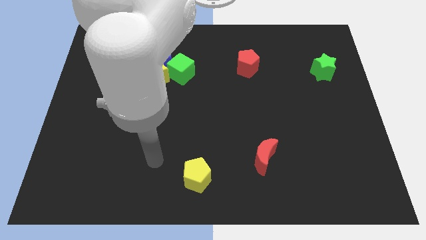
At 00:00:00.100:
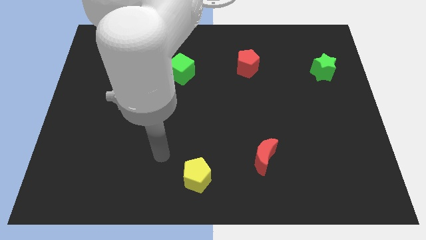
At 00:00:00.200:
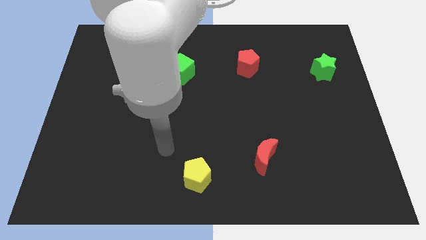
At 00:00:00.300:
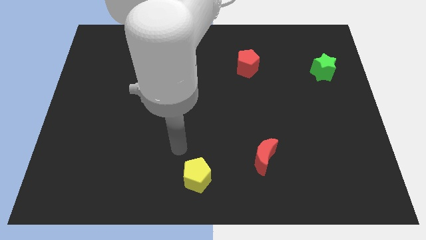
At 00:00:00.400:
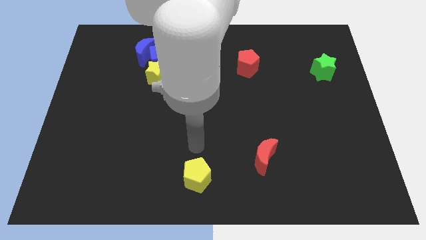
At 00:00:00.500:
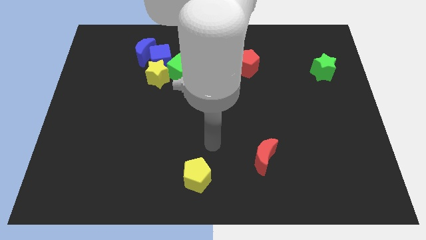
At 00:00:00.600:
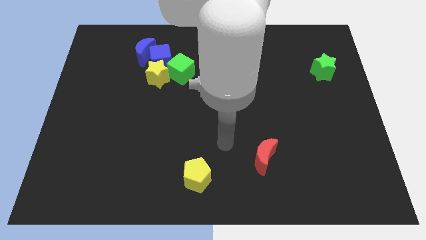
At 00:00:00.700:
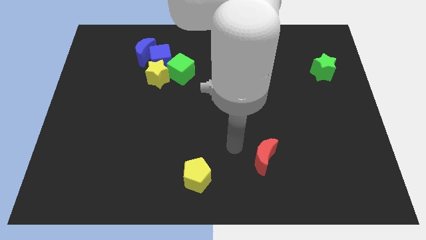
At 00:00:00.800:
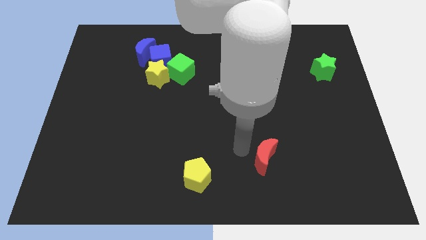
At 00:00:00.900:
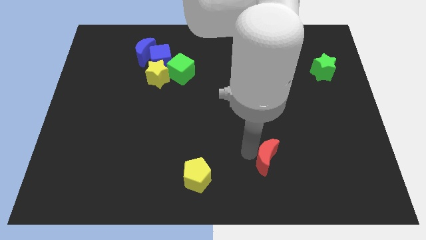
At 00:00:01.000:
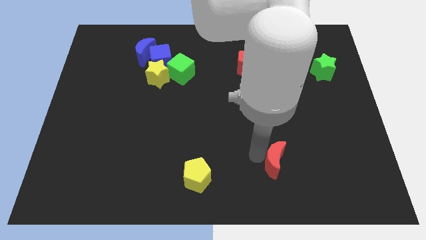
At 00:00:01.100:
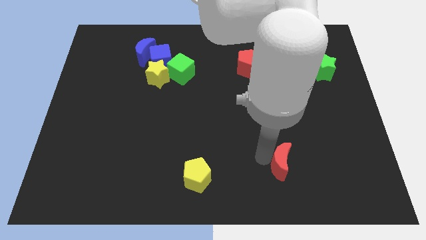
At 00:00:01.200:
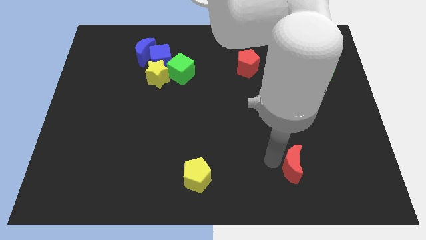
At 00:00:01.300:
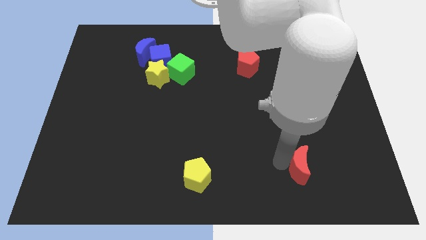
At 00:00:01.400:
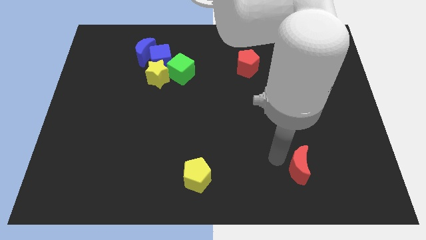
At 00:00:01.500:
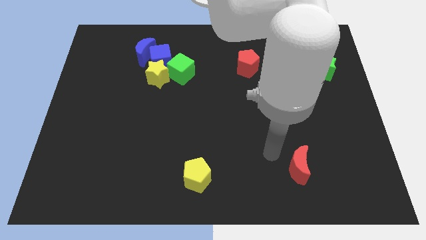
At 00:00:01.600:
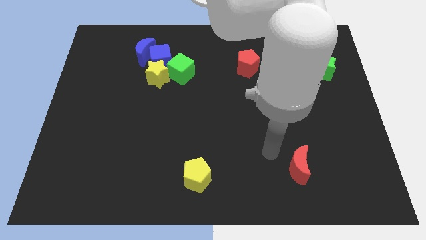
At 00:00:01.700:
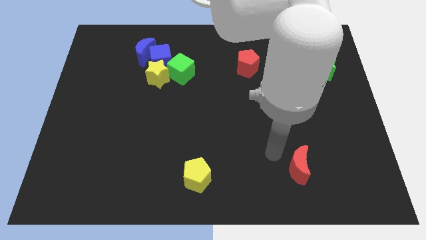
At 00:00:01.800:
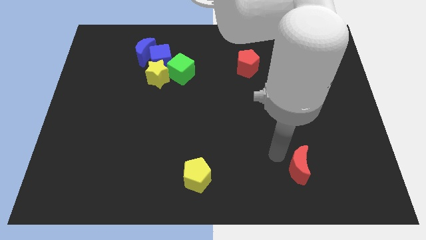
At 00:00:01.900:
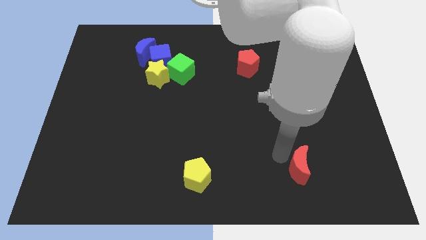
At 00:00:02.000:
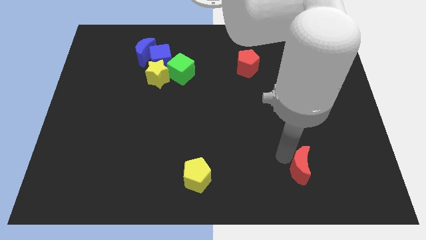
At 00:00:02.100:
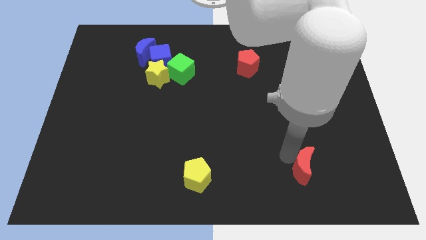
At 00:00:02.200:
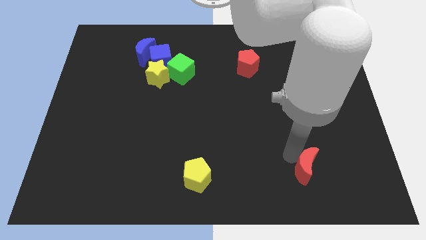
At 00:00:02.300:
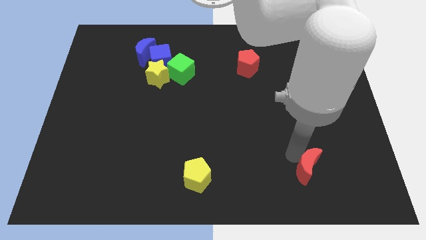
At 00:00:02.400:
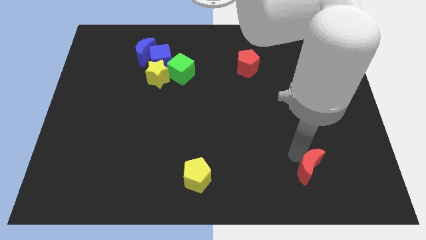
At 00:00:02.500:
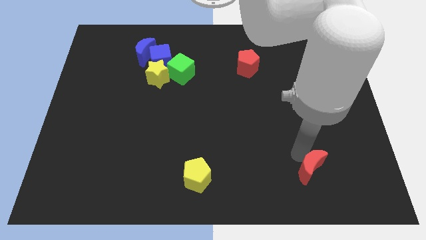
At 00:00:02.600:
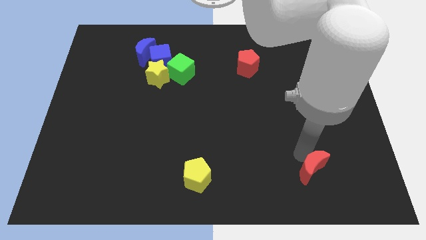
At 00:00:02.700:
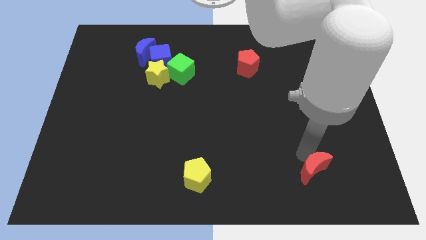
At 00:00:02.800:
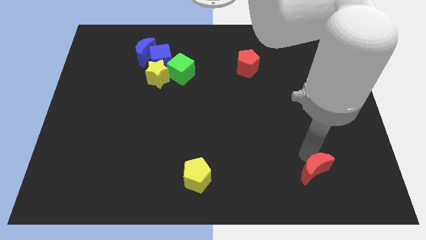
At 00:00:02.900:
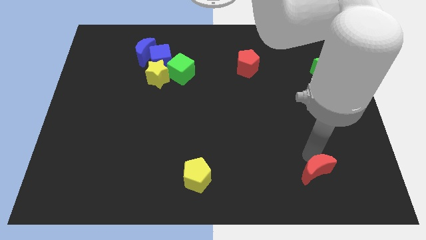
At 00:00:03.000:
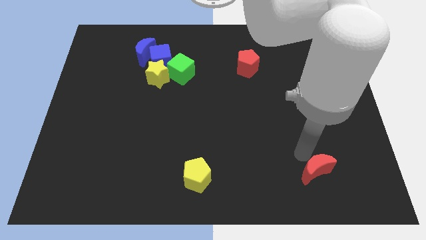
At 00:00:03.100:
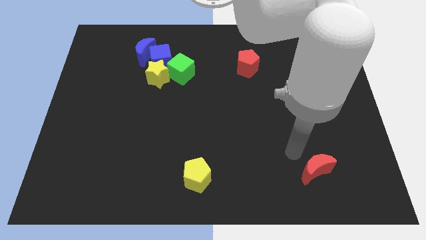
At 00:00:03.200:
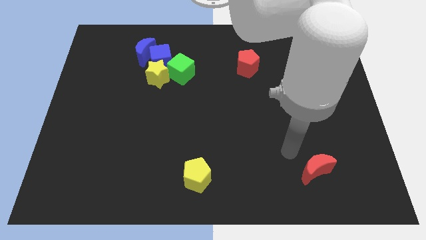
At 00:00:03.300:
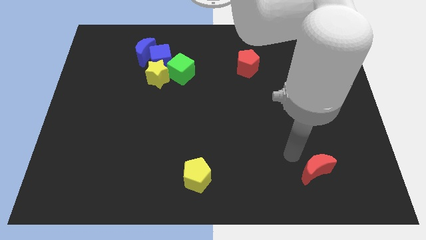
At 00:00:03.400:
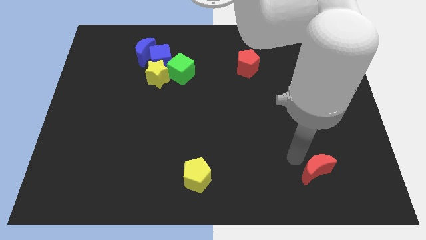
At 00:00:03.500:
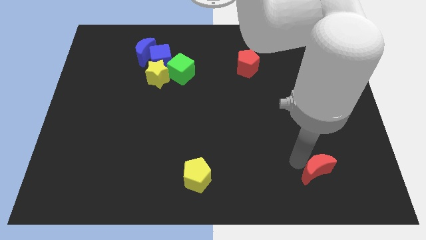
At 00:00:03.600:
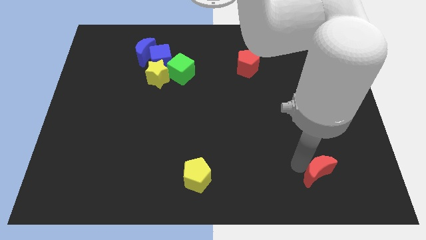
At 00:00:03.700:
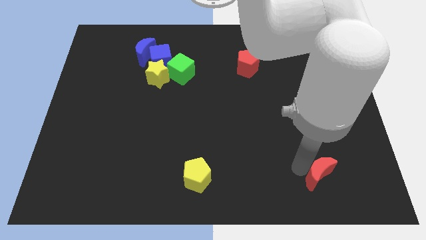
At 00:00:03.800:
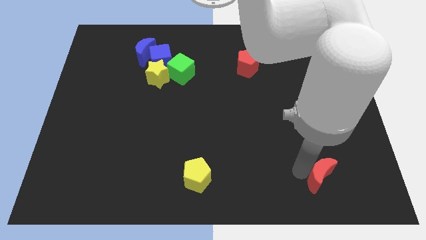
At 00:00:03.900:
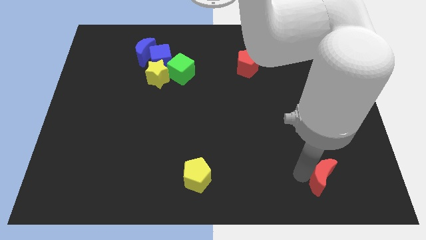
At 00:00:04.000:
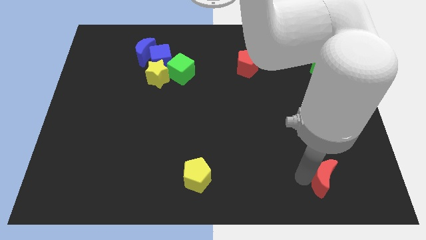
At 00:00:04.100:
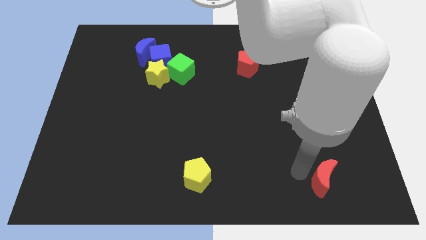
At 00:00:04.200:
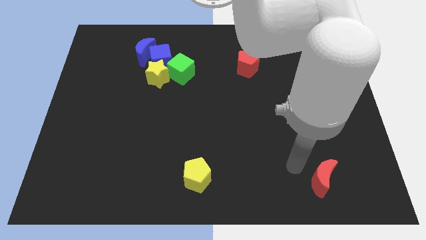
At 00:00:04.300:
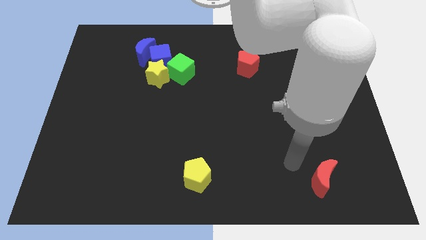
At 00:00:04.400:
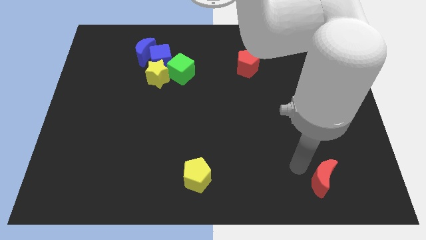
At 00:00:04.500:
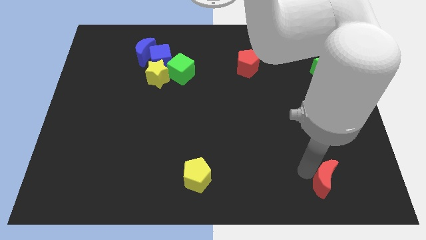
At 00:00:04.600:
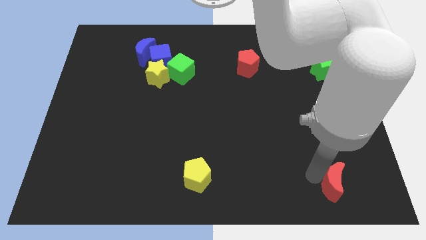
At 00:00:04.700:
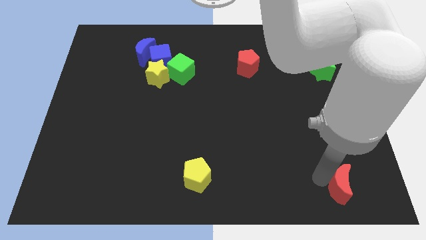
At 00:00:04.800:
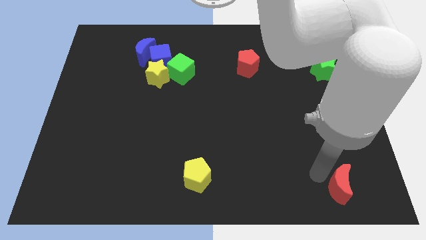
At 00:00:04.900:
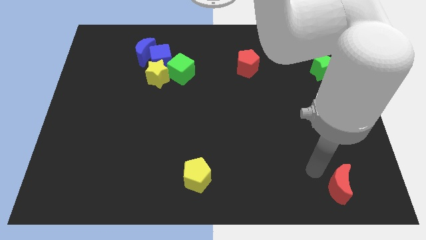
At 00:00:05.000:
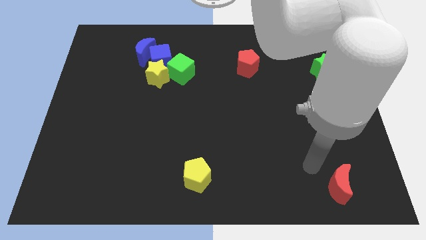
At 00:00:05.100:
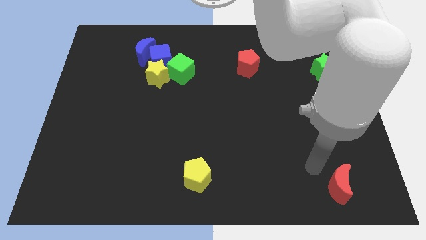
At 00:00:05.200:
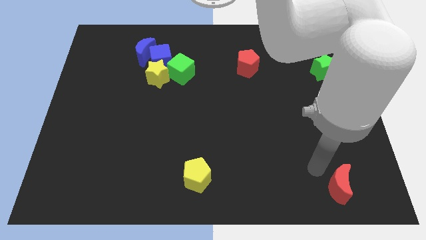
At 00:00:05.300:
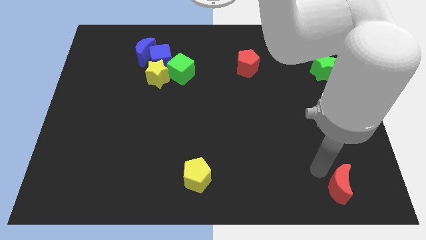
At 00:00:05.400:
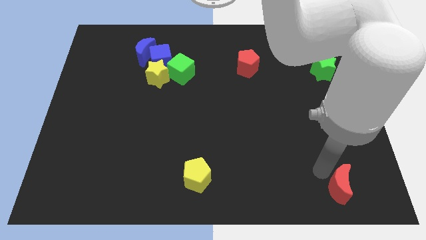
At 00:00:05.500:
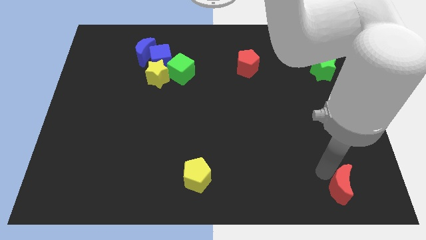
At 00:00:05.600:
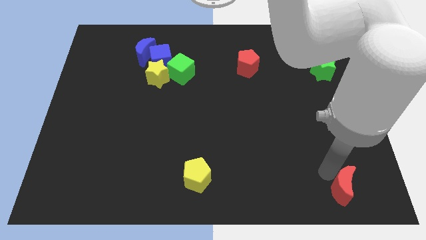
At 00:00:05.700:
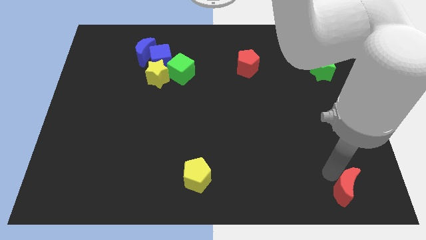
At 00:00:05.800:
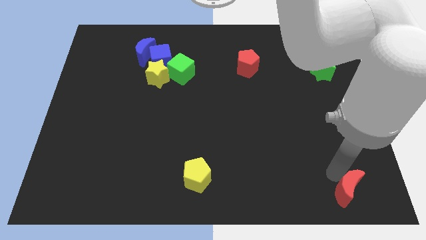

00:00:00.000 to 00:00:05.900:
move the red moon to the bottom right

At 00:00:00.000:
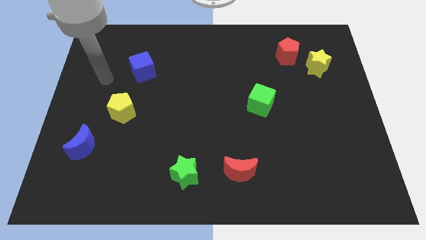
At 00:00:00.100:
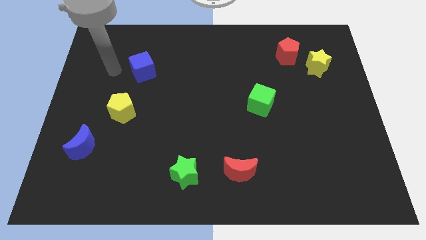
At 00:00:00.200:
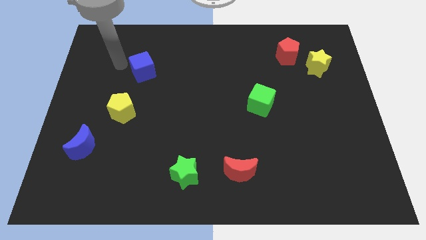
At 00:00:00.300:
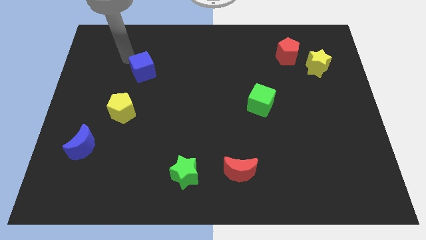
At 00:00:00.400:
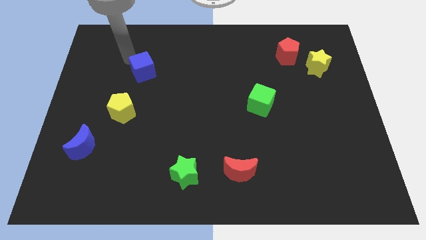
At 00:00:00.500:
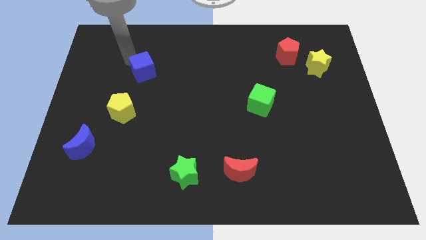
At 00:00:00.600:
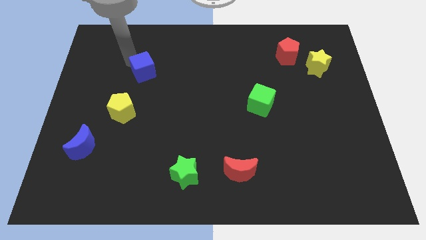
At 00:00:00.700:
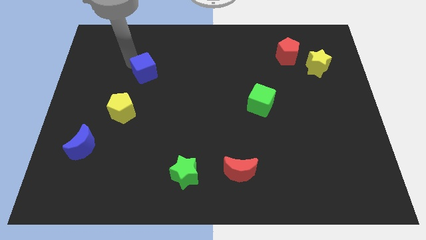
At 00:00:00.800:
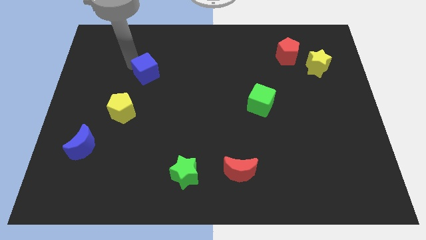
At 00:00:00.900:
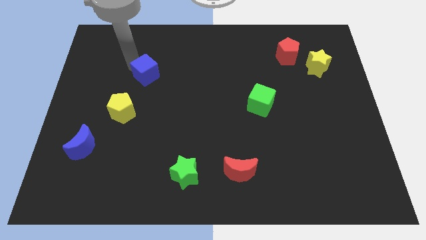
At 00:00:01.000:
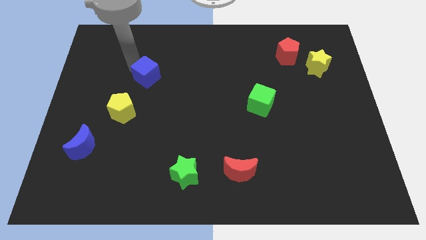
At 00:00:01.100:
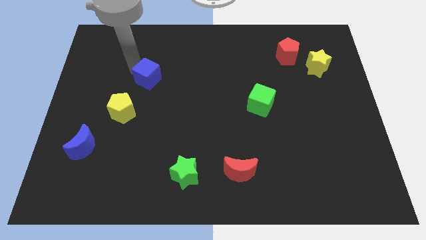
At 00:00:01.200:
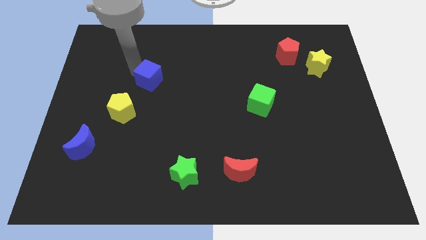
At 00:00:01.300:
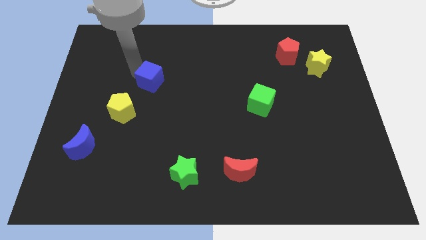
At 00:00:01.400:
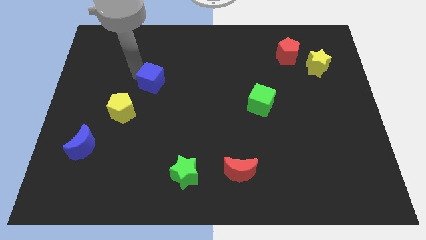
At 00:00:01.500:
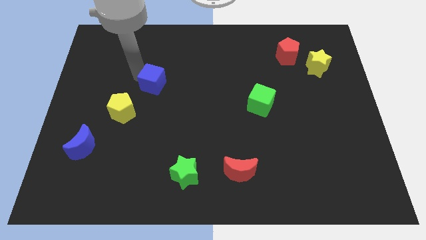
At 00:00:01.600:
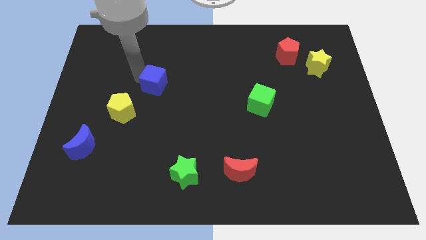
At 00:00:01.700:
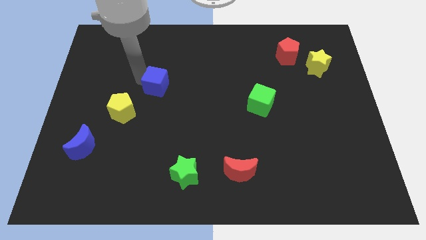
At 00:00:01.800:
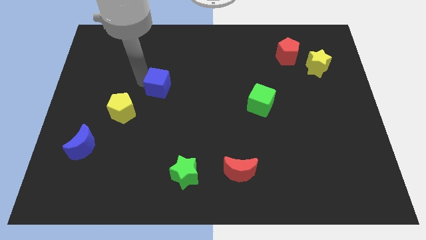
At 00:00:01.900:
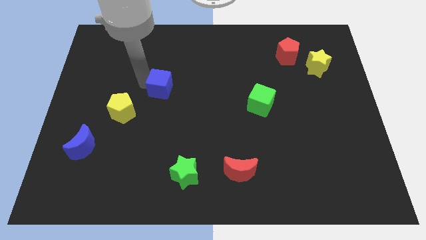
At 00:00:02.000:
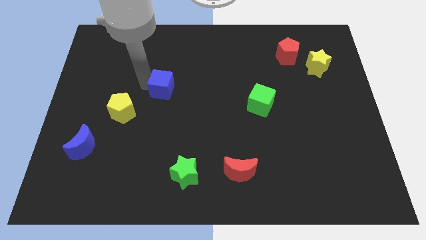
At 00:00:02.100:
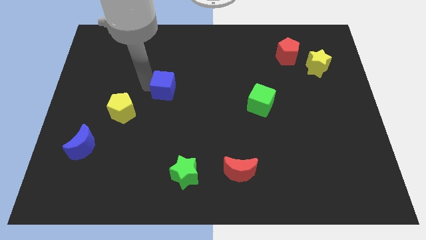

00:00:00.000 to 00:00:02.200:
push the blue cube to the middle
